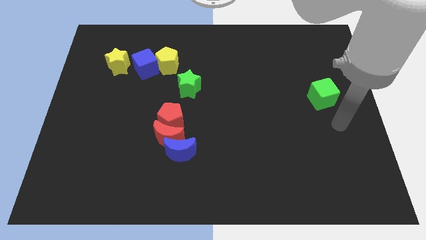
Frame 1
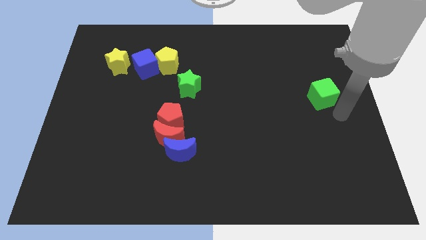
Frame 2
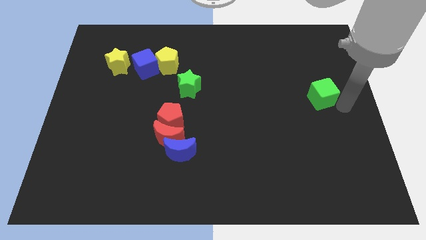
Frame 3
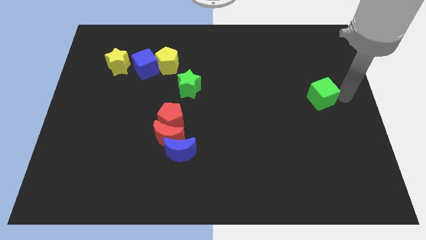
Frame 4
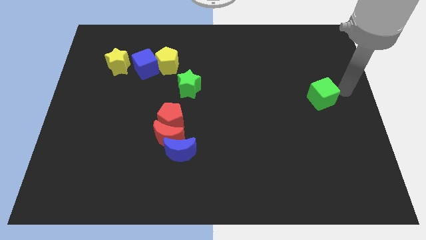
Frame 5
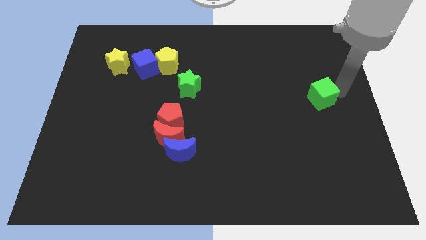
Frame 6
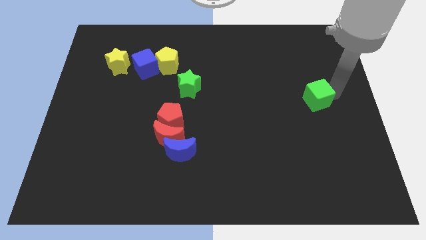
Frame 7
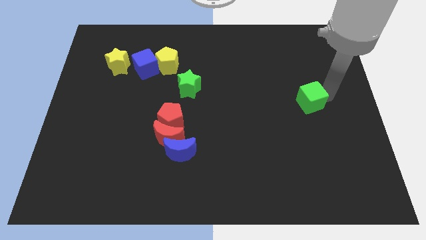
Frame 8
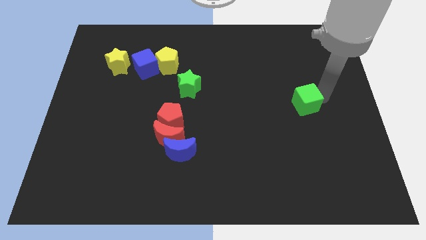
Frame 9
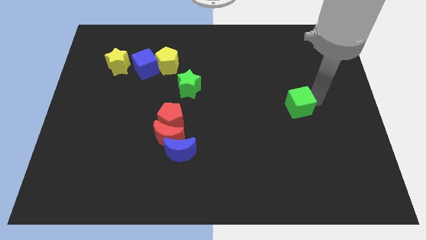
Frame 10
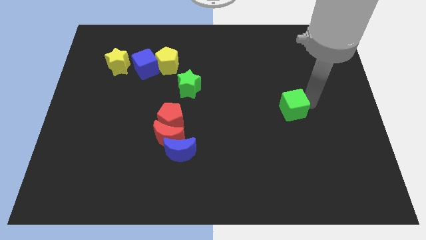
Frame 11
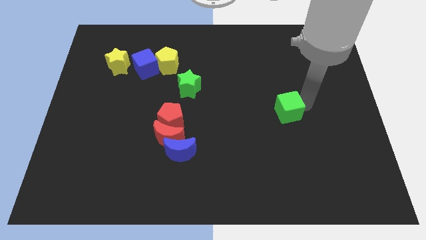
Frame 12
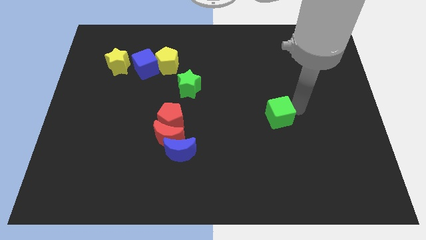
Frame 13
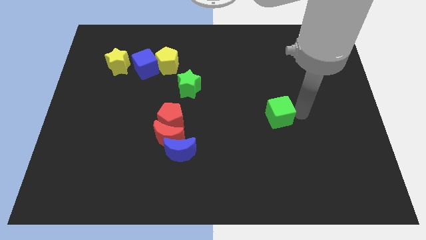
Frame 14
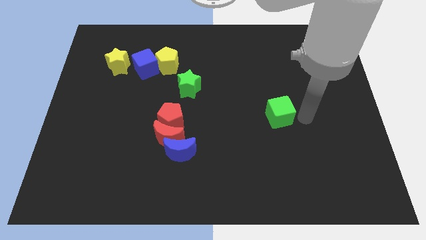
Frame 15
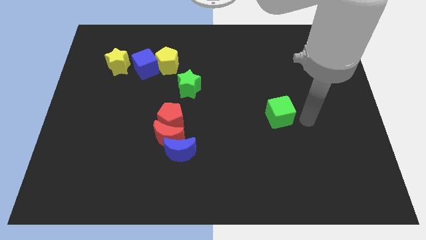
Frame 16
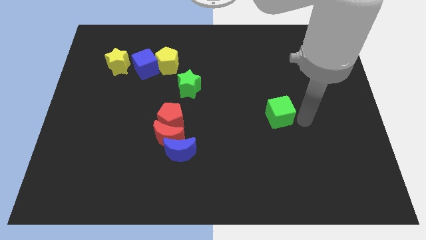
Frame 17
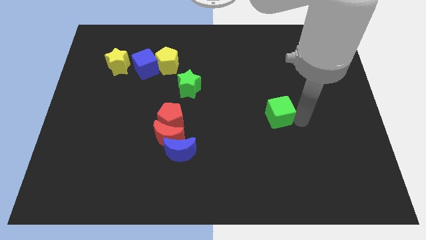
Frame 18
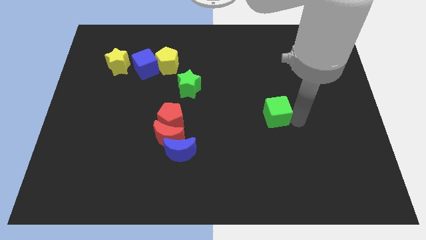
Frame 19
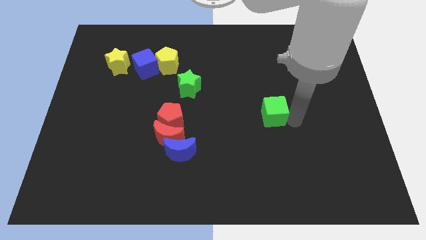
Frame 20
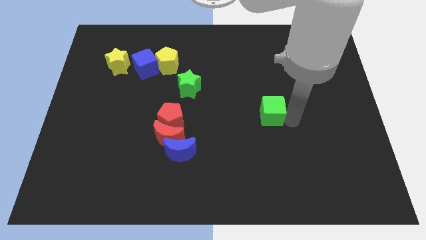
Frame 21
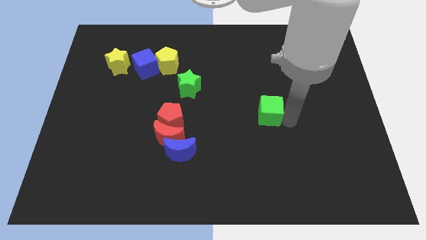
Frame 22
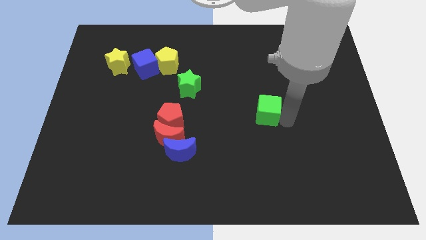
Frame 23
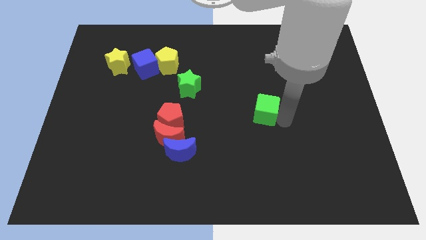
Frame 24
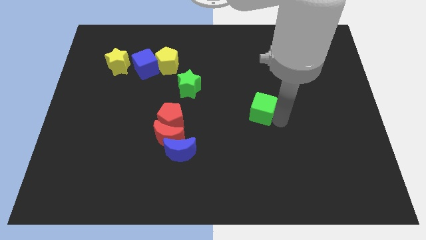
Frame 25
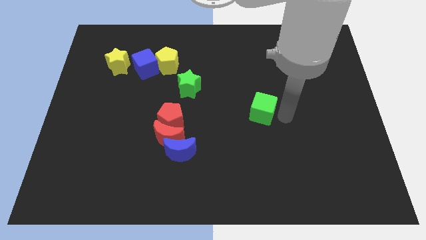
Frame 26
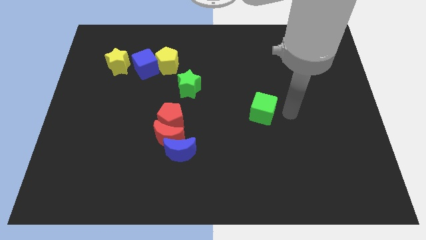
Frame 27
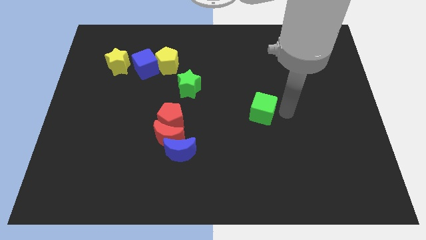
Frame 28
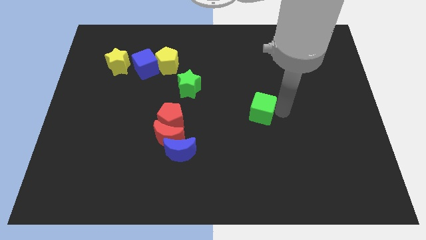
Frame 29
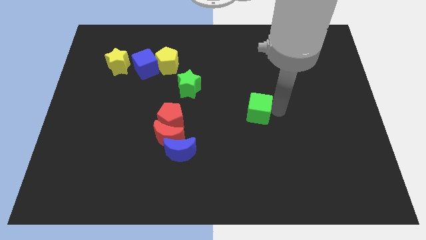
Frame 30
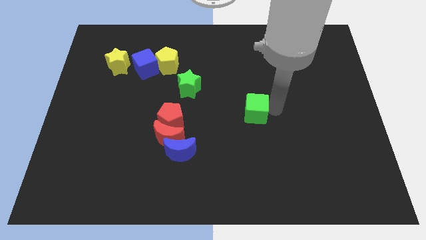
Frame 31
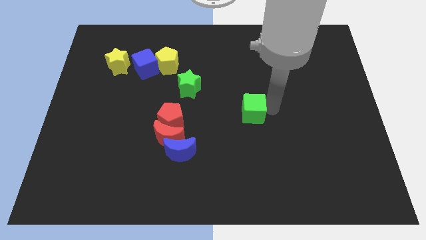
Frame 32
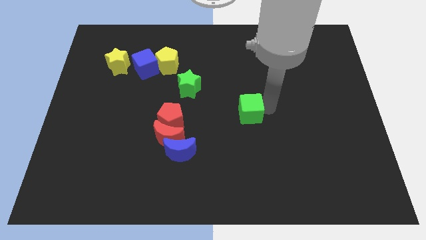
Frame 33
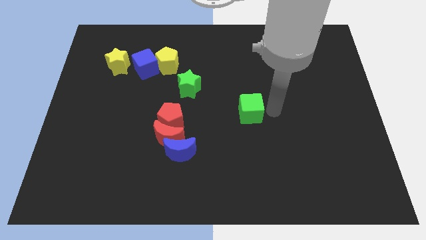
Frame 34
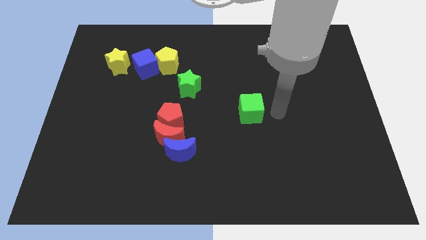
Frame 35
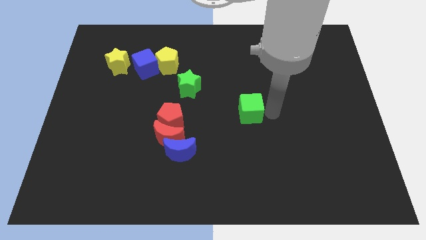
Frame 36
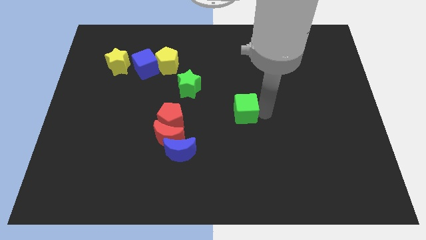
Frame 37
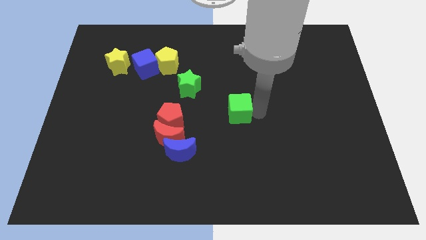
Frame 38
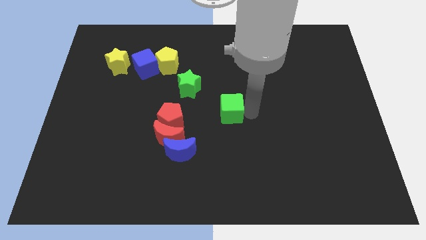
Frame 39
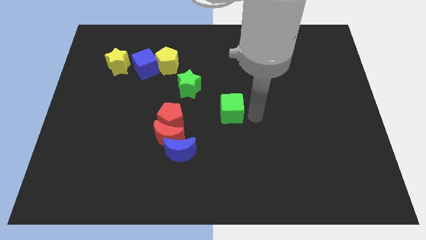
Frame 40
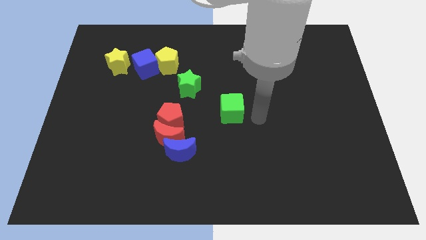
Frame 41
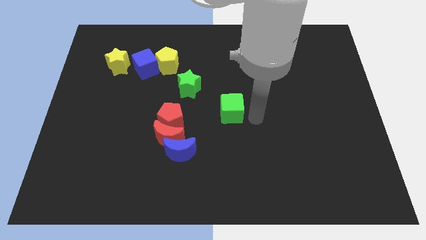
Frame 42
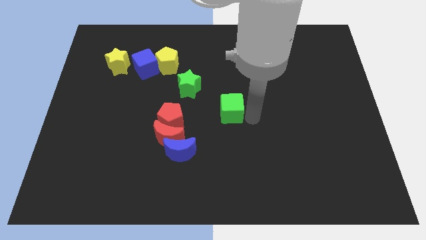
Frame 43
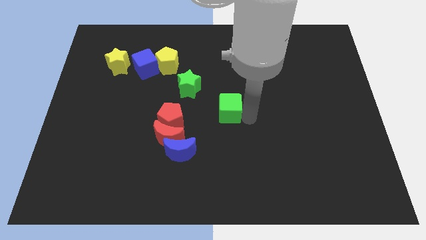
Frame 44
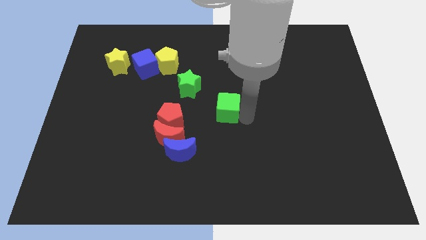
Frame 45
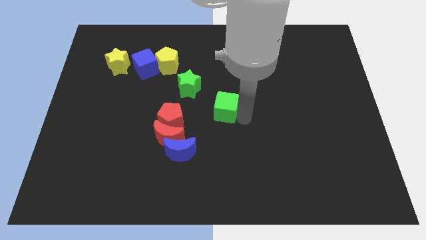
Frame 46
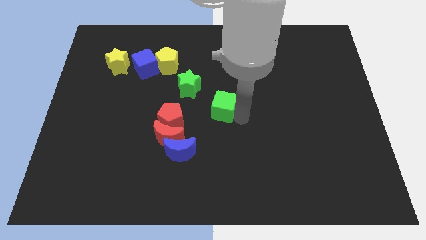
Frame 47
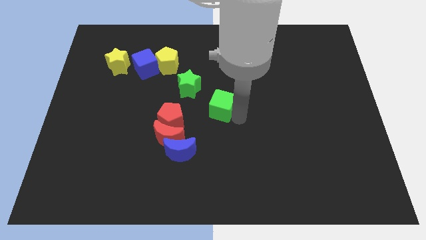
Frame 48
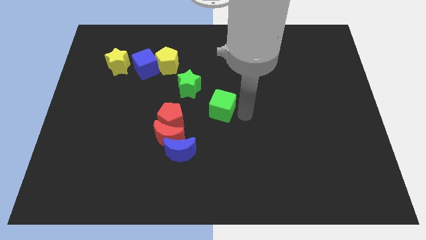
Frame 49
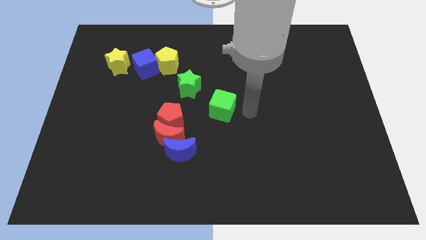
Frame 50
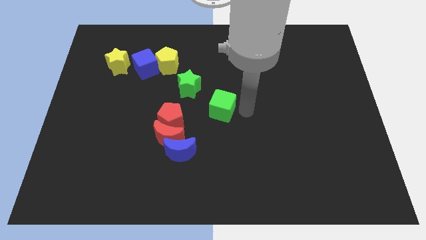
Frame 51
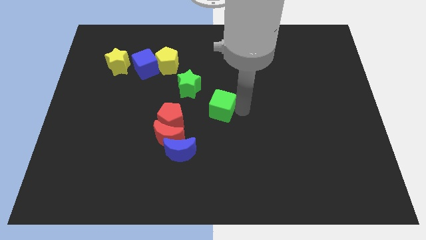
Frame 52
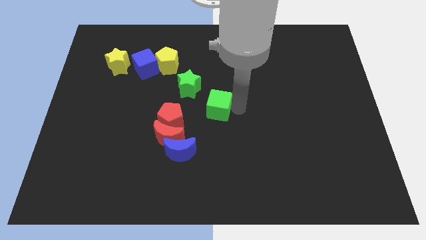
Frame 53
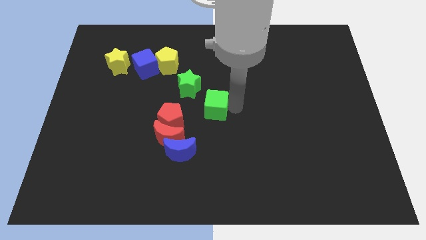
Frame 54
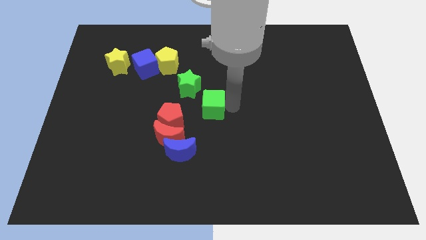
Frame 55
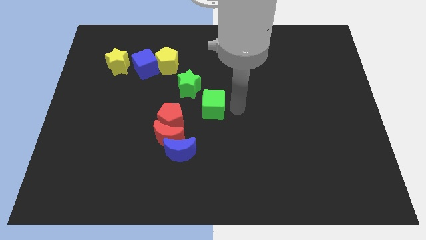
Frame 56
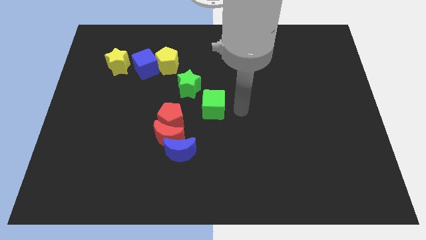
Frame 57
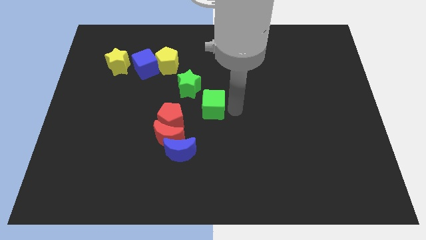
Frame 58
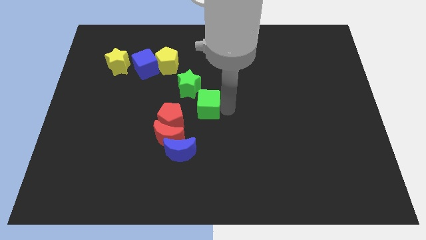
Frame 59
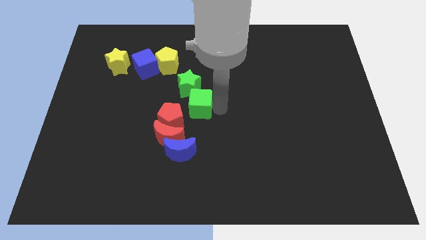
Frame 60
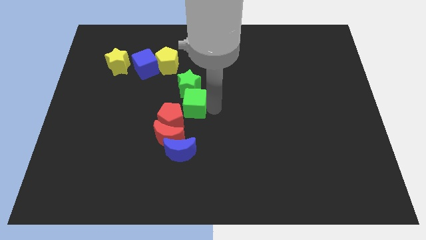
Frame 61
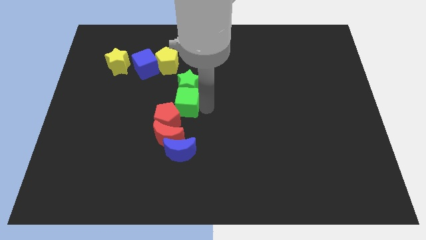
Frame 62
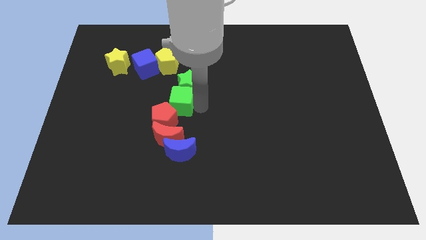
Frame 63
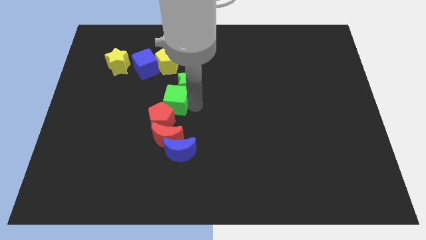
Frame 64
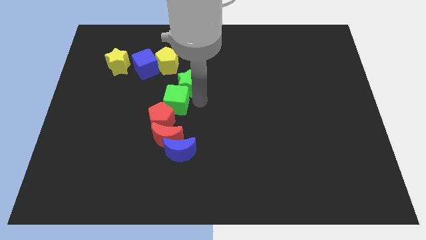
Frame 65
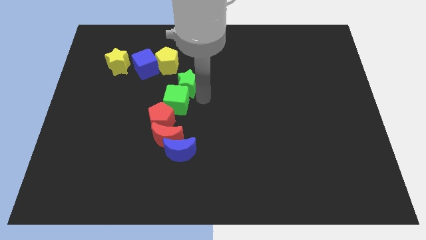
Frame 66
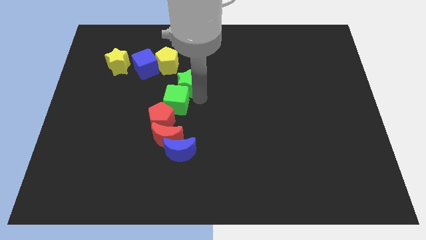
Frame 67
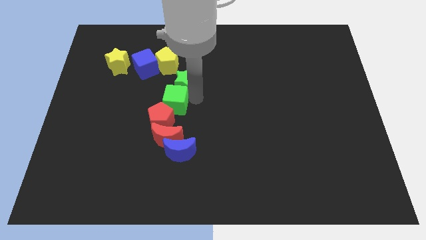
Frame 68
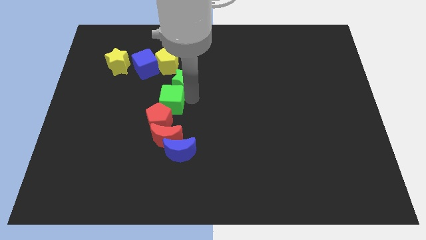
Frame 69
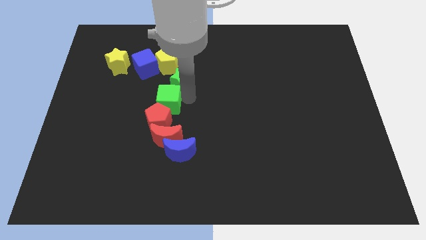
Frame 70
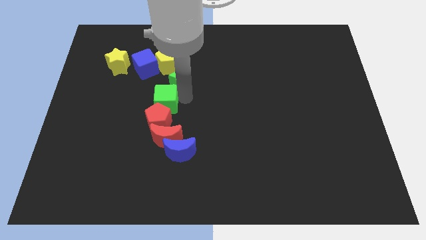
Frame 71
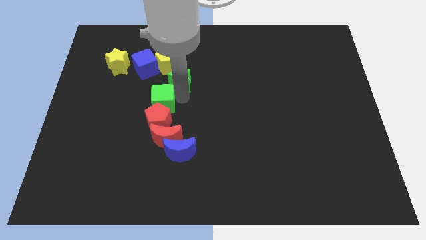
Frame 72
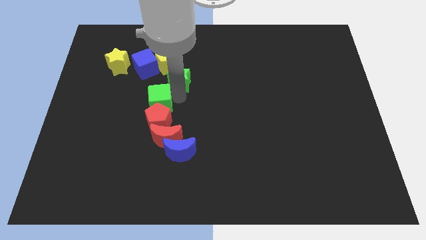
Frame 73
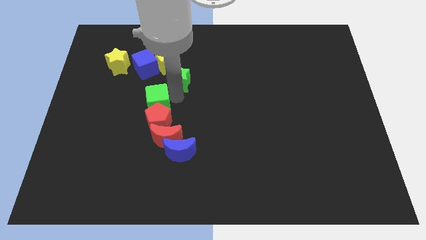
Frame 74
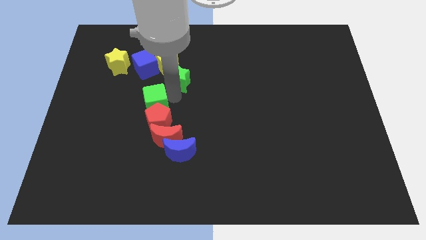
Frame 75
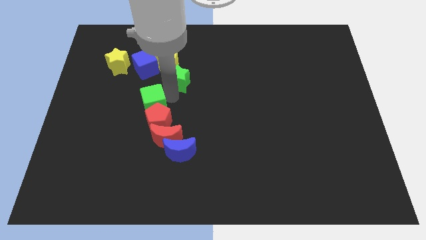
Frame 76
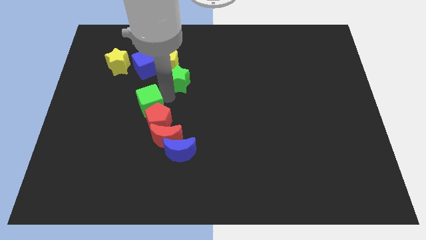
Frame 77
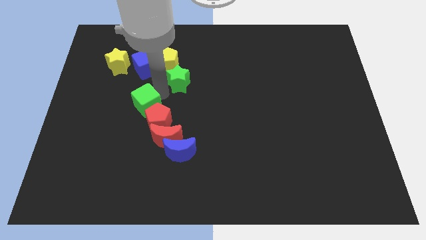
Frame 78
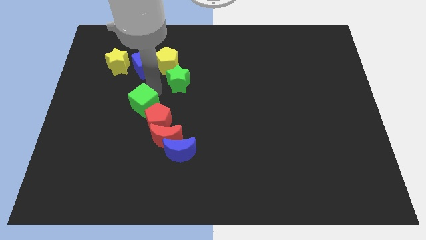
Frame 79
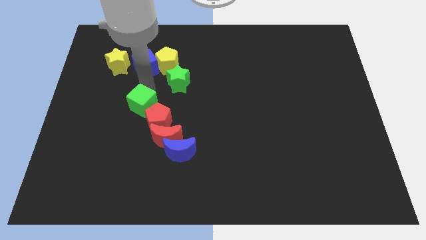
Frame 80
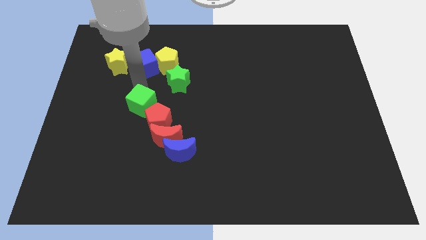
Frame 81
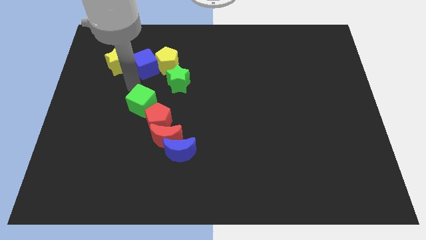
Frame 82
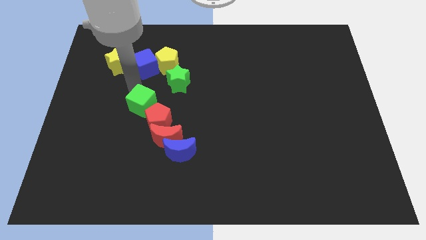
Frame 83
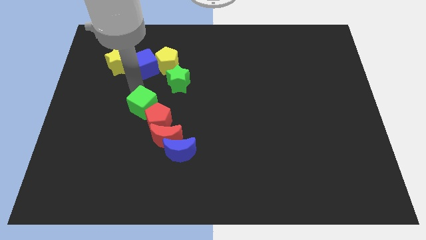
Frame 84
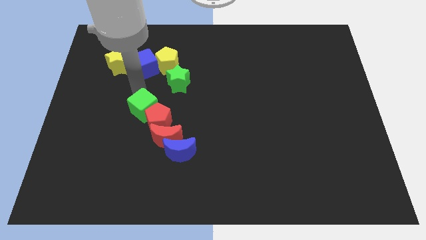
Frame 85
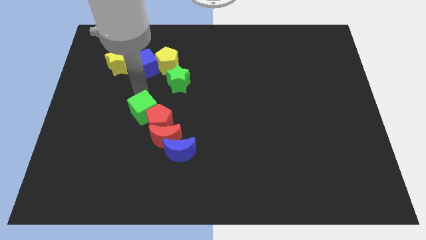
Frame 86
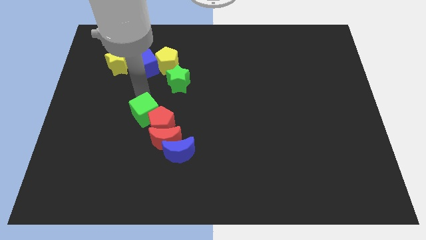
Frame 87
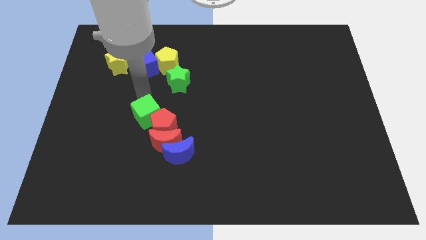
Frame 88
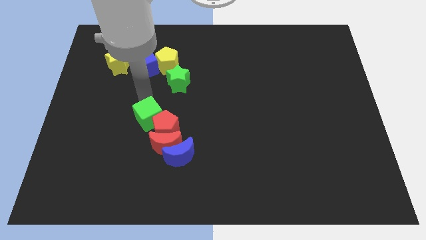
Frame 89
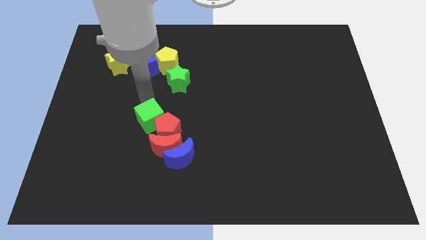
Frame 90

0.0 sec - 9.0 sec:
push the green cube to the top left of the blue moon
